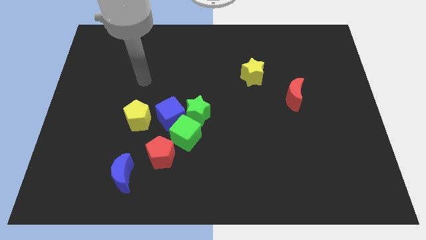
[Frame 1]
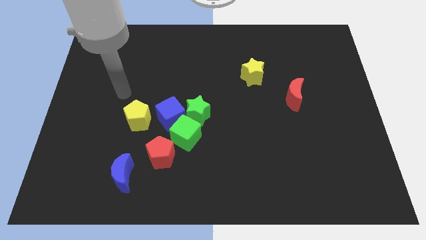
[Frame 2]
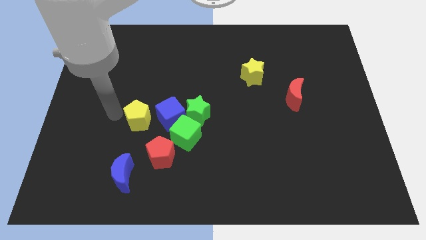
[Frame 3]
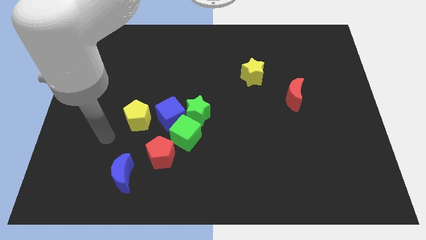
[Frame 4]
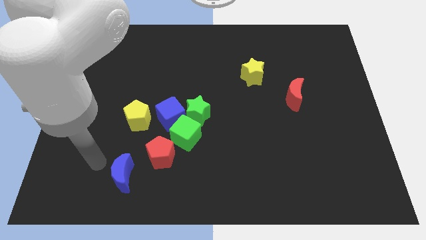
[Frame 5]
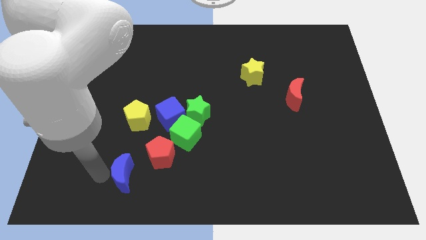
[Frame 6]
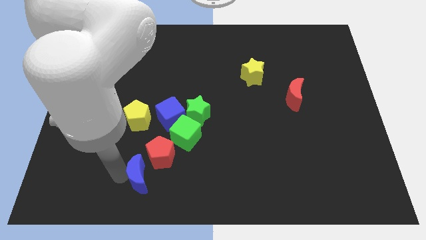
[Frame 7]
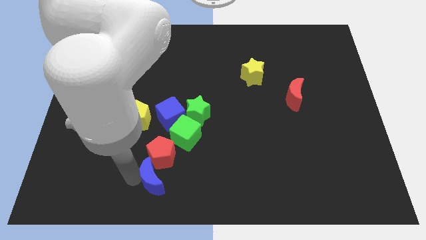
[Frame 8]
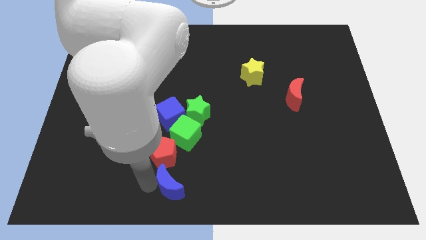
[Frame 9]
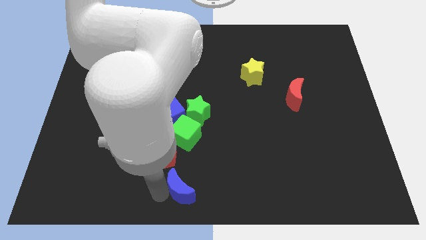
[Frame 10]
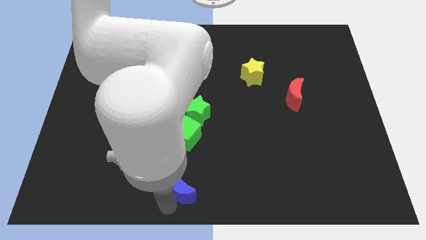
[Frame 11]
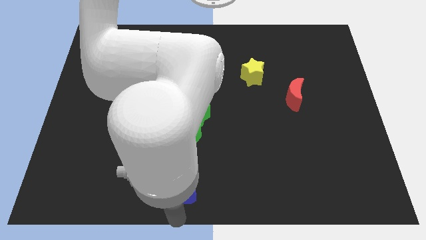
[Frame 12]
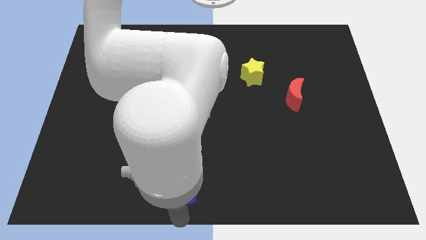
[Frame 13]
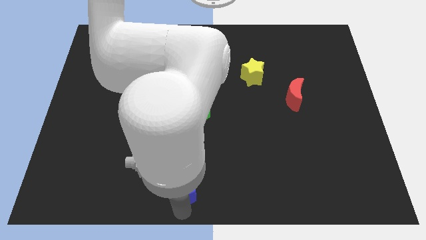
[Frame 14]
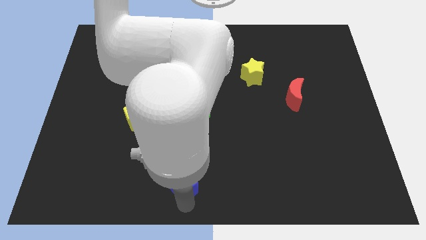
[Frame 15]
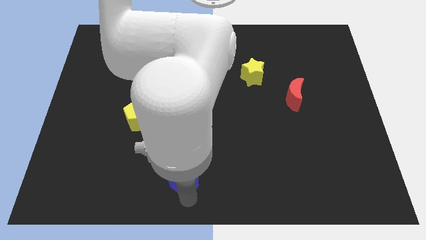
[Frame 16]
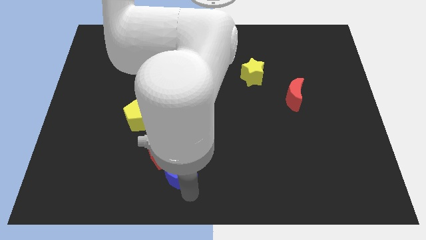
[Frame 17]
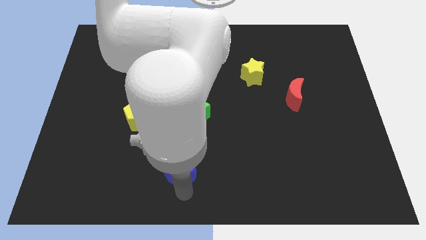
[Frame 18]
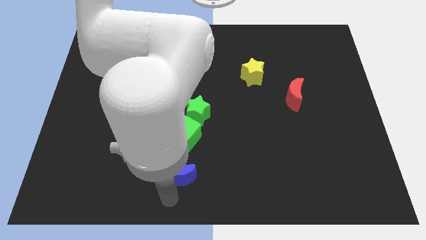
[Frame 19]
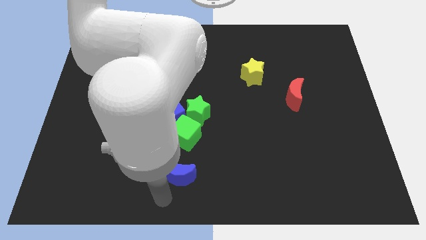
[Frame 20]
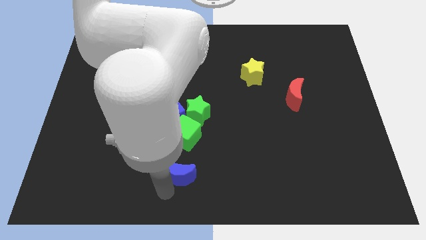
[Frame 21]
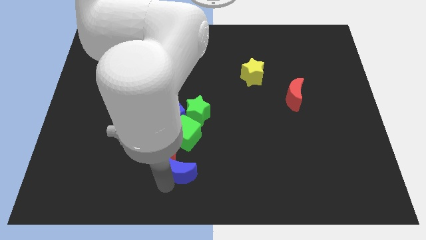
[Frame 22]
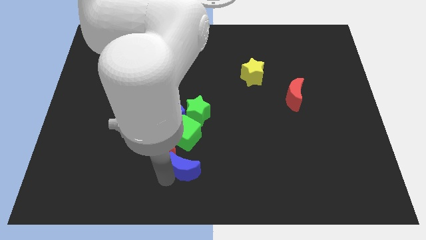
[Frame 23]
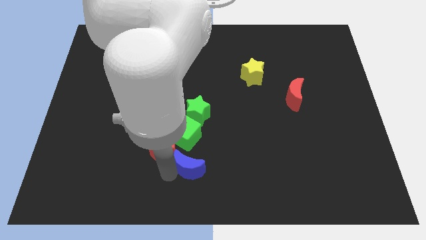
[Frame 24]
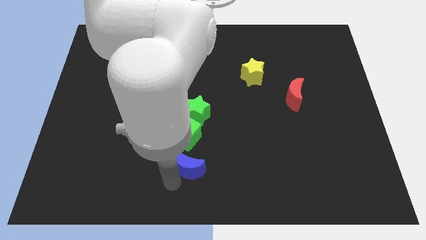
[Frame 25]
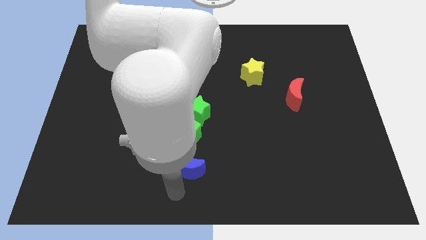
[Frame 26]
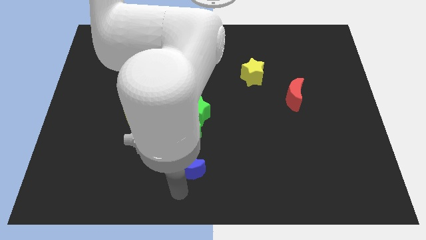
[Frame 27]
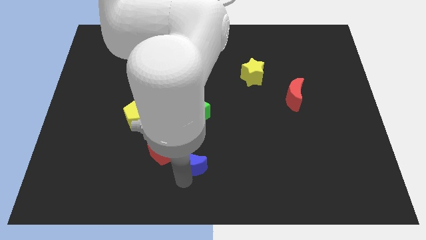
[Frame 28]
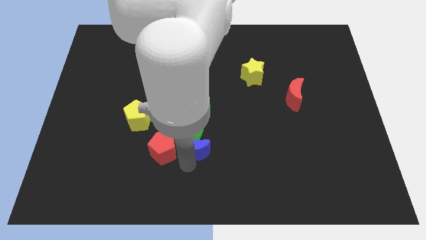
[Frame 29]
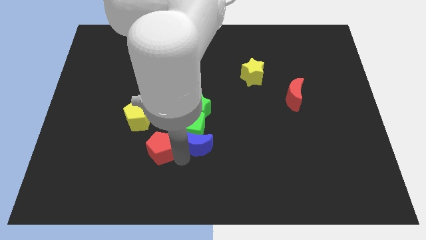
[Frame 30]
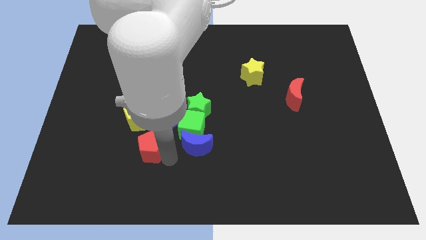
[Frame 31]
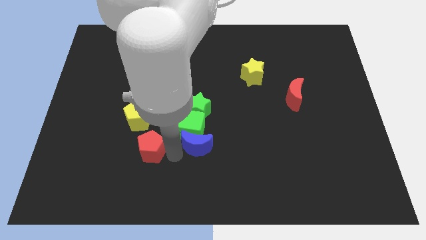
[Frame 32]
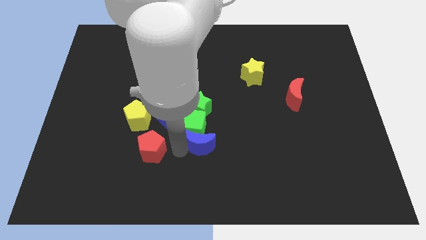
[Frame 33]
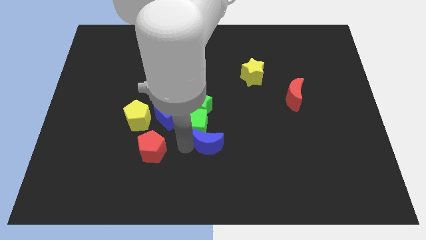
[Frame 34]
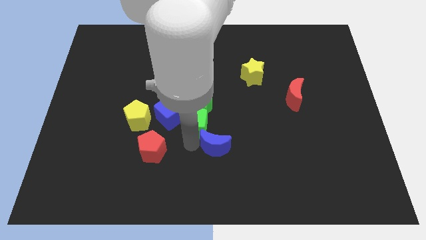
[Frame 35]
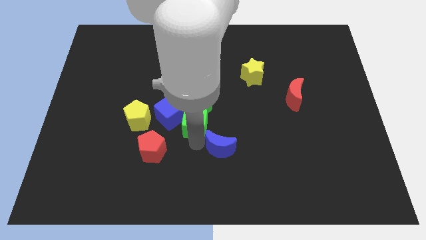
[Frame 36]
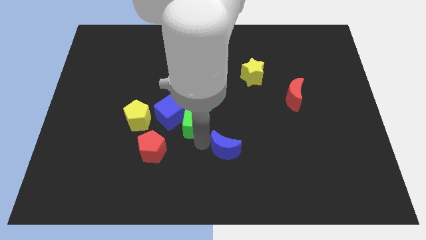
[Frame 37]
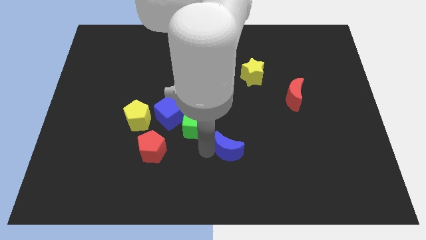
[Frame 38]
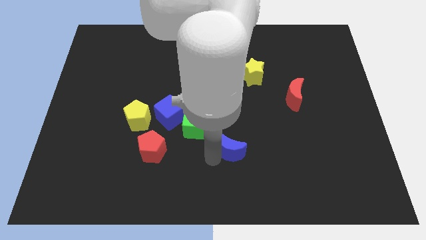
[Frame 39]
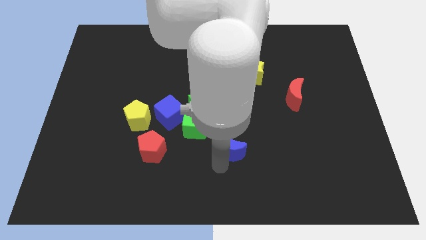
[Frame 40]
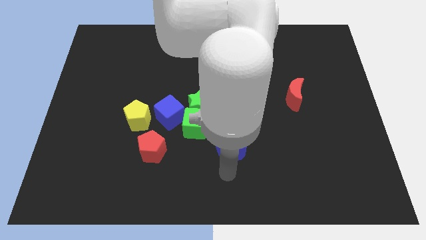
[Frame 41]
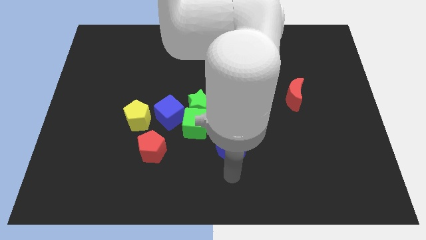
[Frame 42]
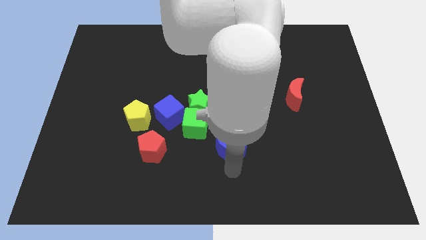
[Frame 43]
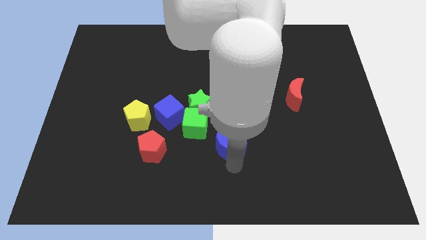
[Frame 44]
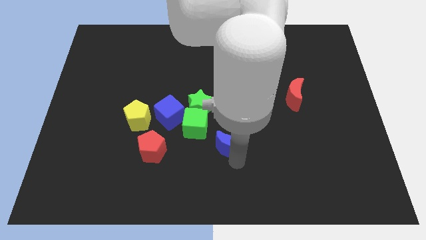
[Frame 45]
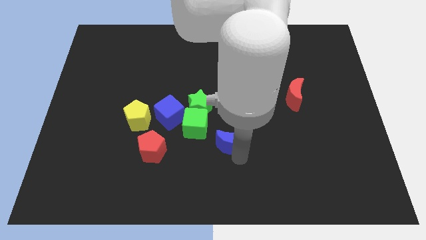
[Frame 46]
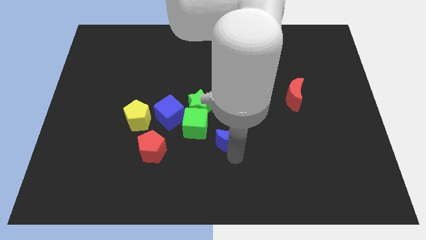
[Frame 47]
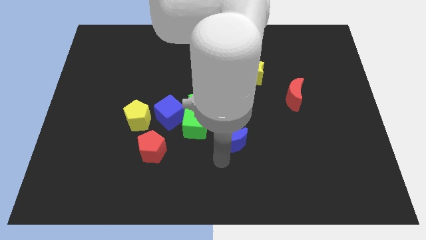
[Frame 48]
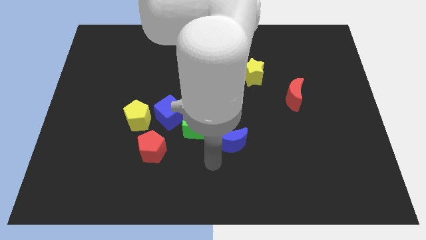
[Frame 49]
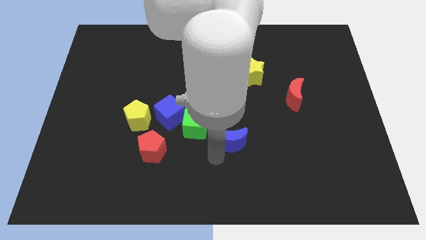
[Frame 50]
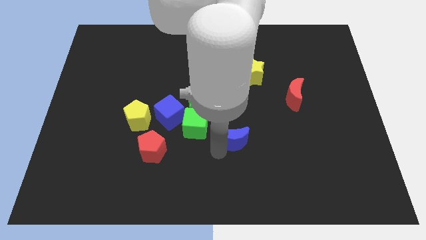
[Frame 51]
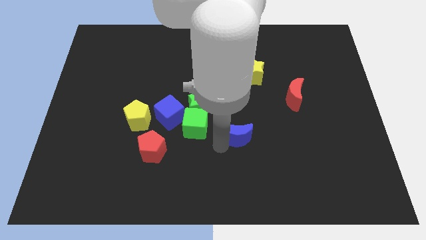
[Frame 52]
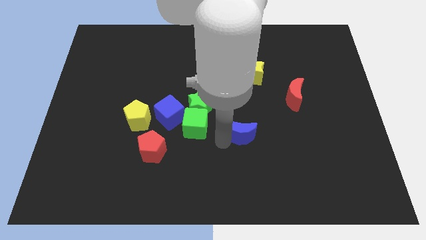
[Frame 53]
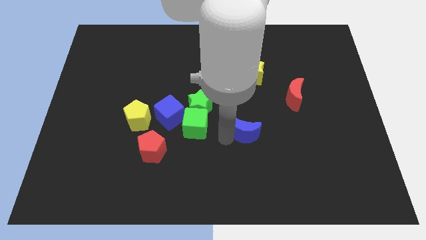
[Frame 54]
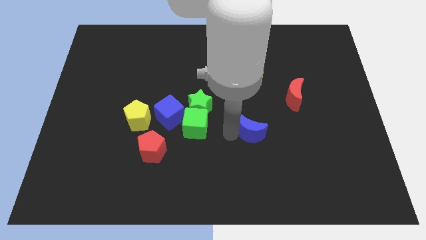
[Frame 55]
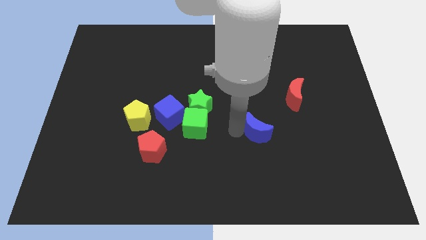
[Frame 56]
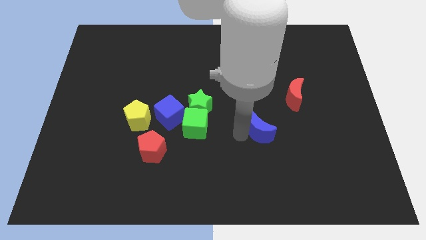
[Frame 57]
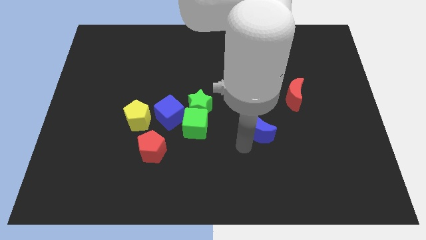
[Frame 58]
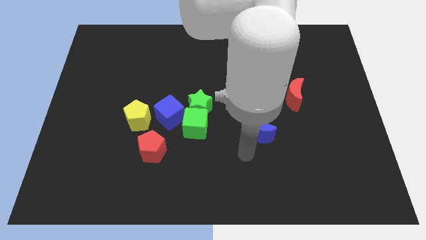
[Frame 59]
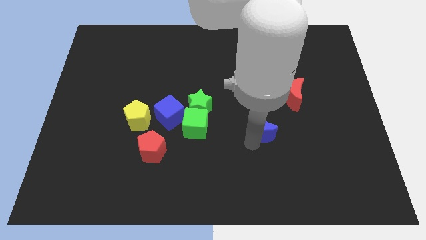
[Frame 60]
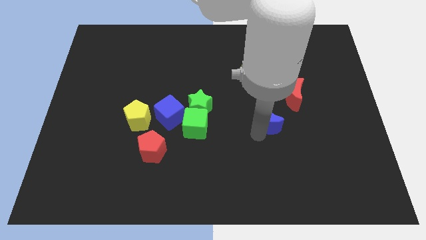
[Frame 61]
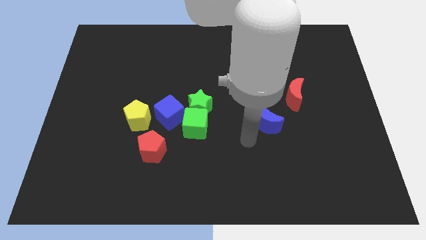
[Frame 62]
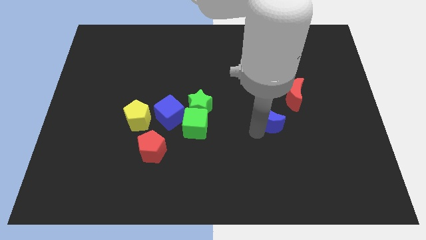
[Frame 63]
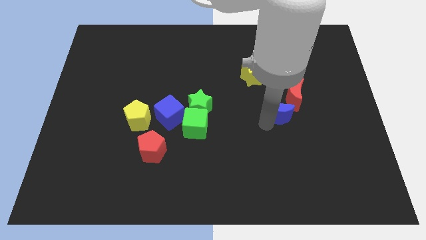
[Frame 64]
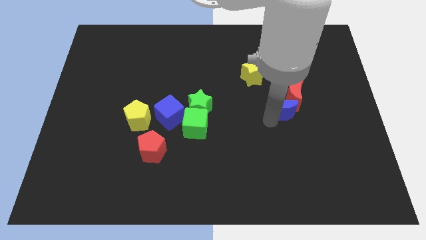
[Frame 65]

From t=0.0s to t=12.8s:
slide the blue moon to the red moon

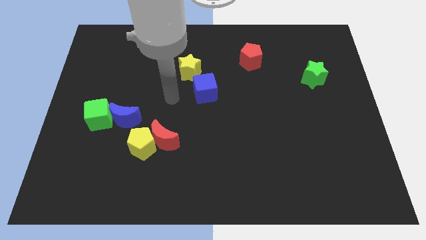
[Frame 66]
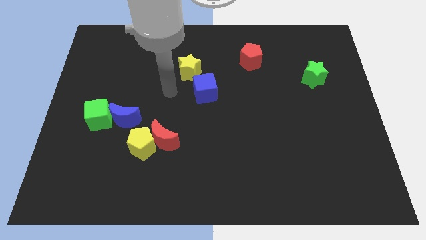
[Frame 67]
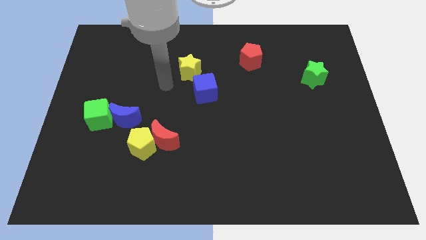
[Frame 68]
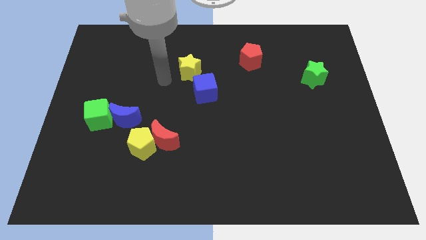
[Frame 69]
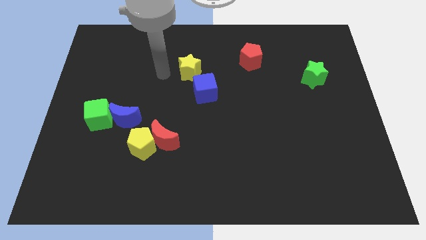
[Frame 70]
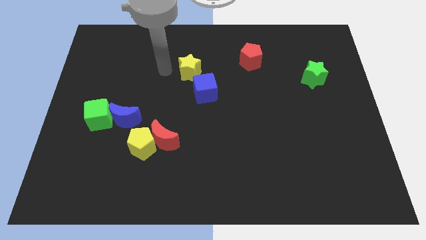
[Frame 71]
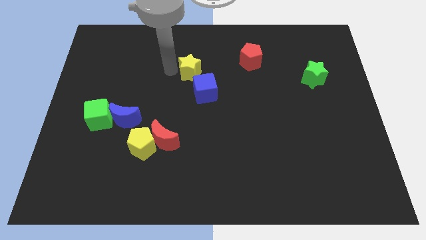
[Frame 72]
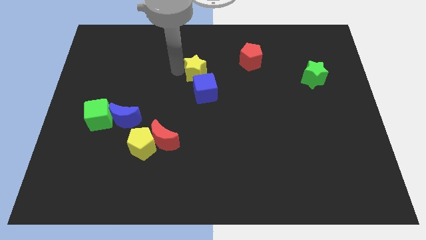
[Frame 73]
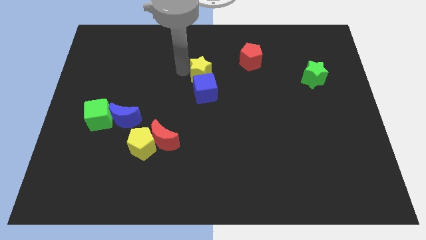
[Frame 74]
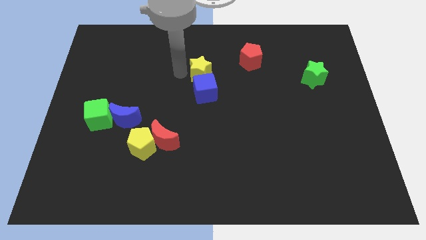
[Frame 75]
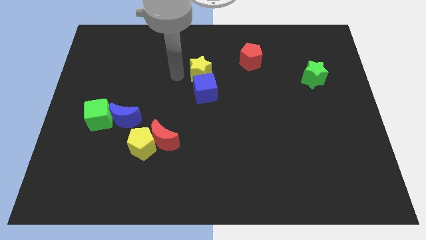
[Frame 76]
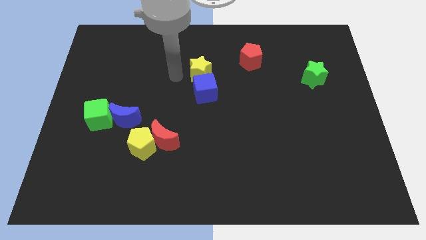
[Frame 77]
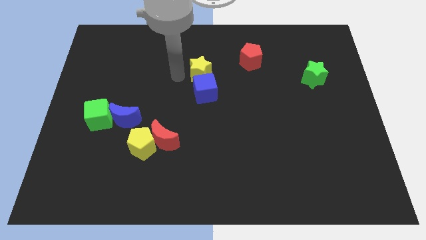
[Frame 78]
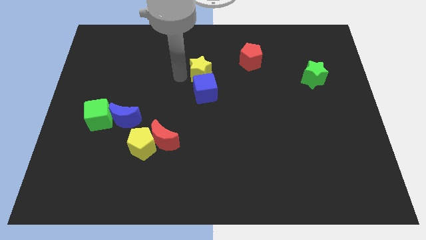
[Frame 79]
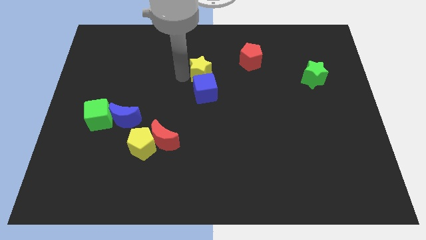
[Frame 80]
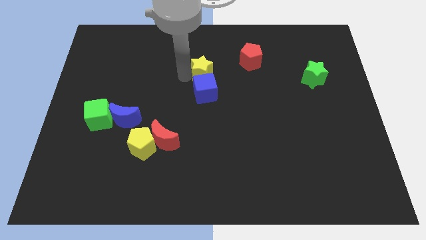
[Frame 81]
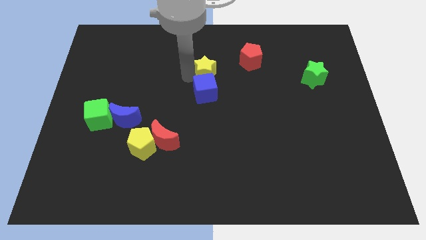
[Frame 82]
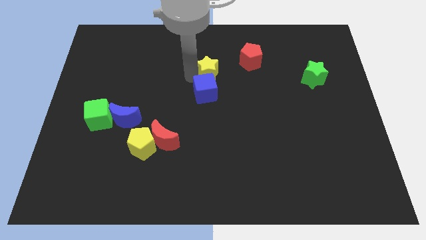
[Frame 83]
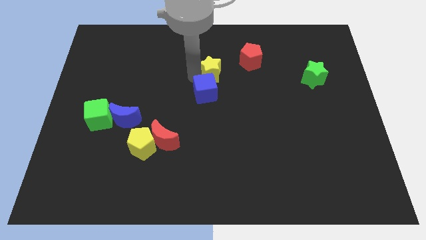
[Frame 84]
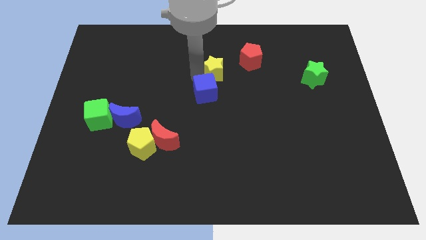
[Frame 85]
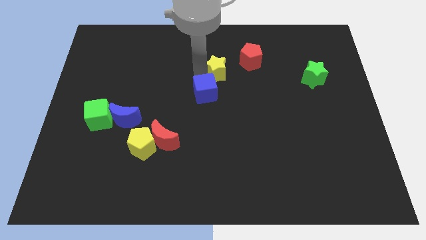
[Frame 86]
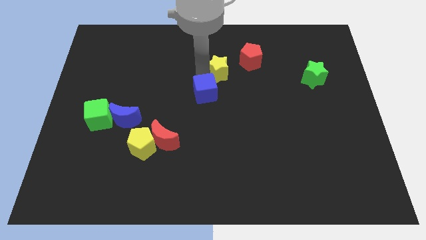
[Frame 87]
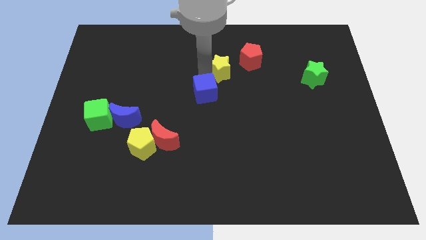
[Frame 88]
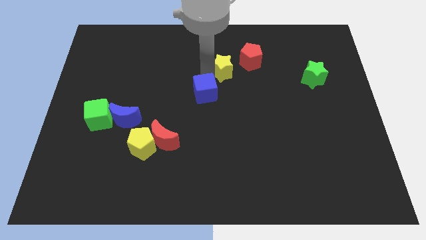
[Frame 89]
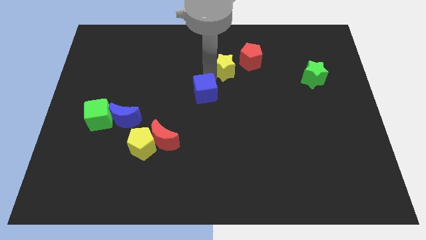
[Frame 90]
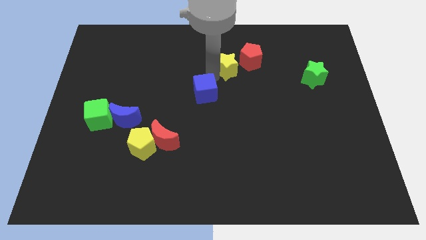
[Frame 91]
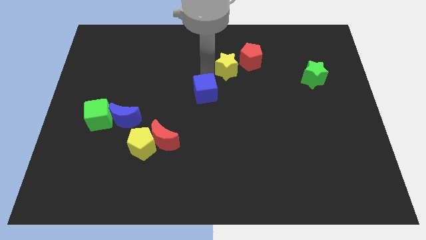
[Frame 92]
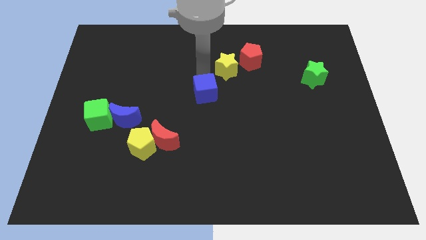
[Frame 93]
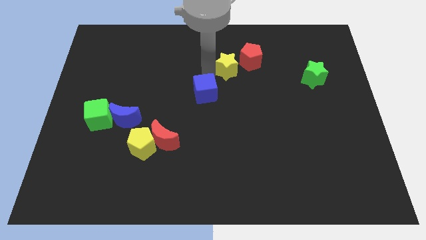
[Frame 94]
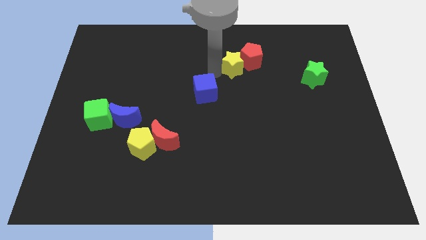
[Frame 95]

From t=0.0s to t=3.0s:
push the yellow star close to the red pentagon
